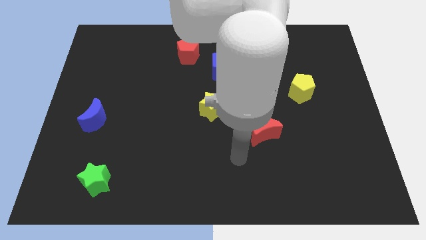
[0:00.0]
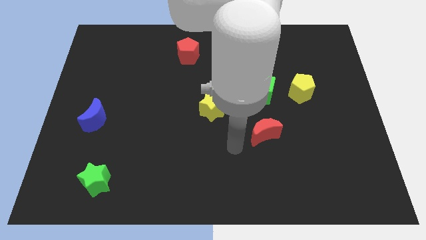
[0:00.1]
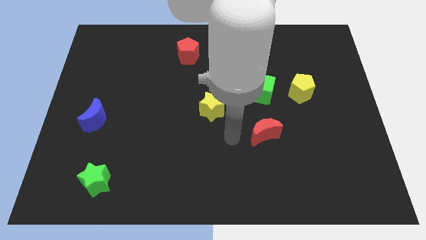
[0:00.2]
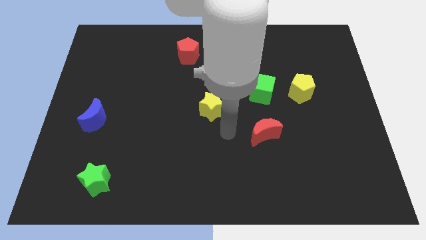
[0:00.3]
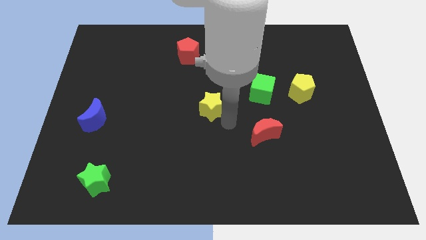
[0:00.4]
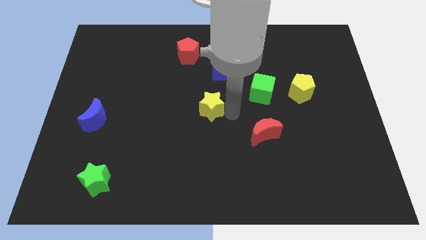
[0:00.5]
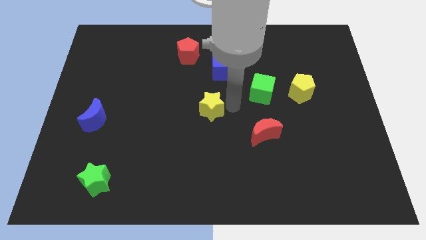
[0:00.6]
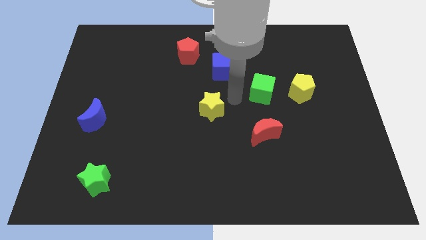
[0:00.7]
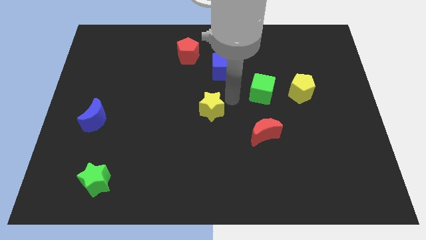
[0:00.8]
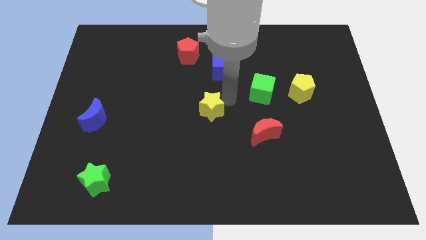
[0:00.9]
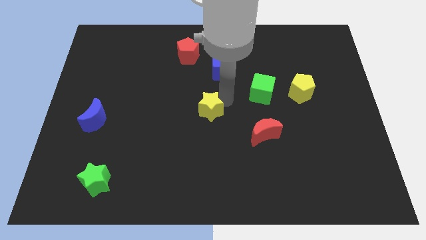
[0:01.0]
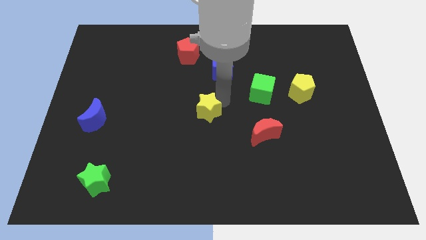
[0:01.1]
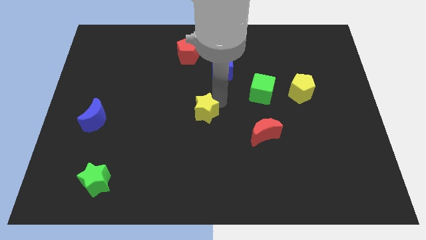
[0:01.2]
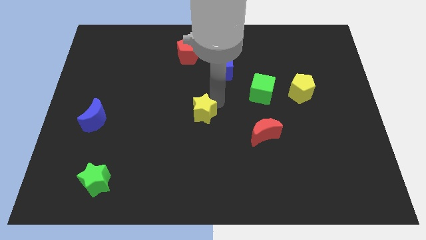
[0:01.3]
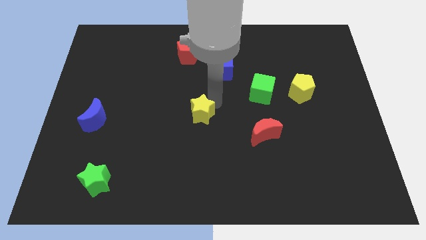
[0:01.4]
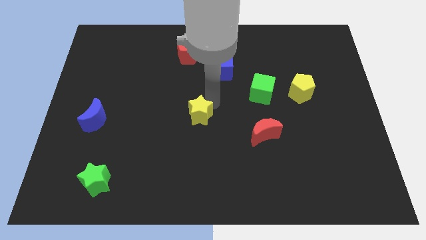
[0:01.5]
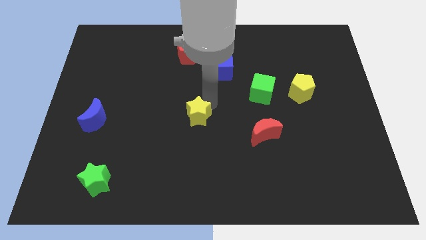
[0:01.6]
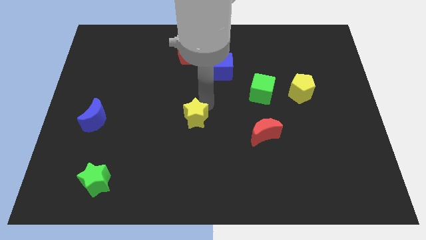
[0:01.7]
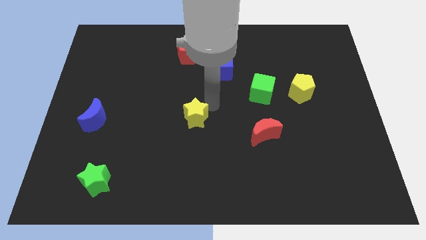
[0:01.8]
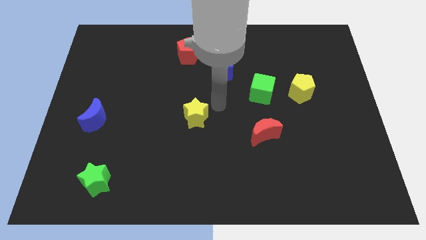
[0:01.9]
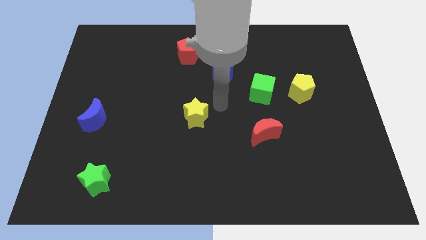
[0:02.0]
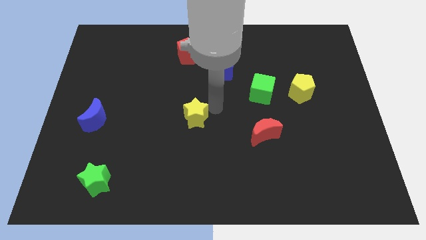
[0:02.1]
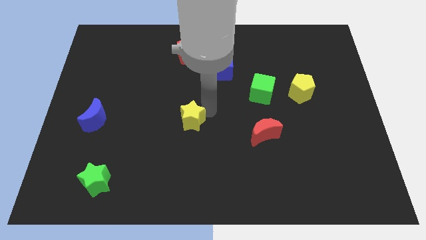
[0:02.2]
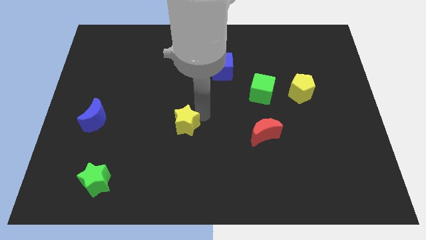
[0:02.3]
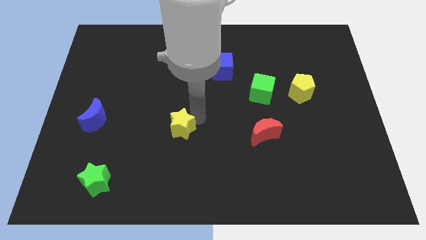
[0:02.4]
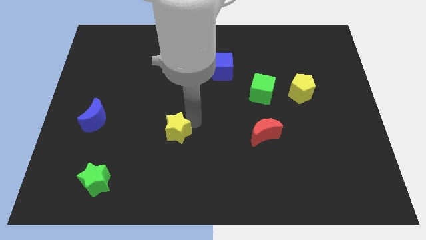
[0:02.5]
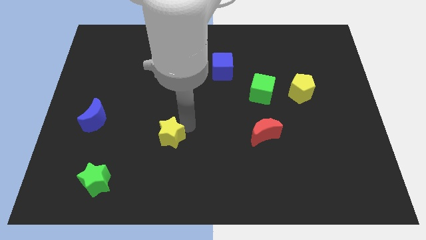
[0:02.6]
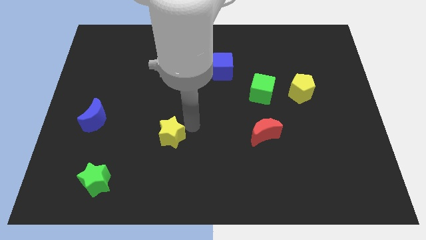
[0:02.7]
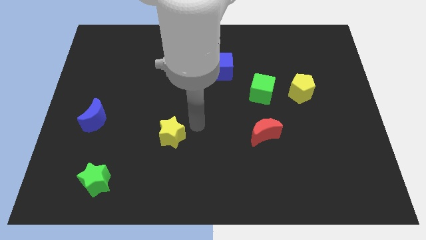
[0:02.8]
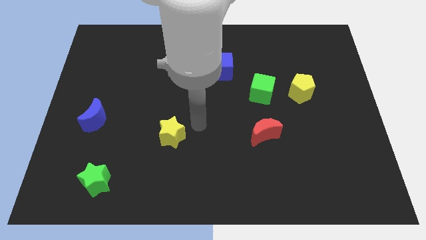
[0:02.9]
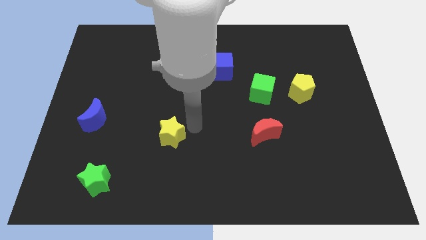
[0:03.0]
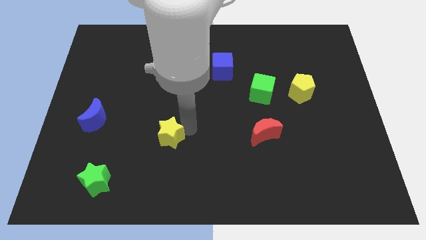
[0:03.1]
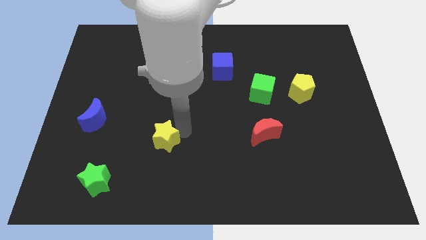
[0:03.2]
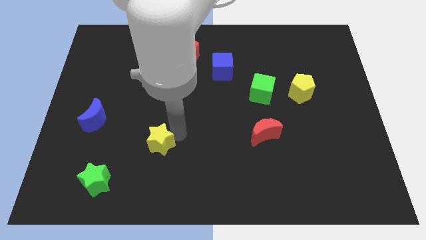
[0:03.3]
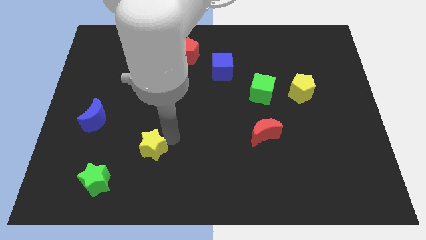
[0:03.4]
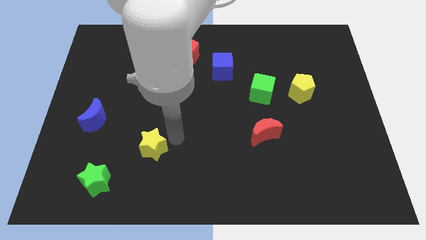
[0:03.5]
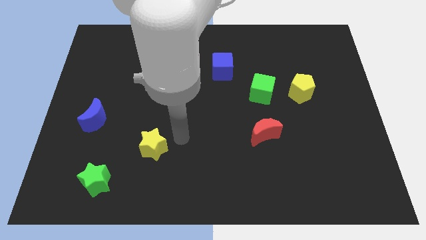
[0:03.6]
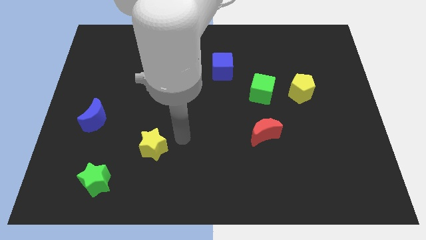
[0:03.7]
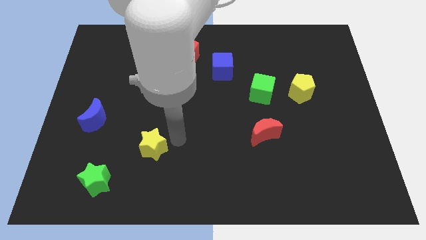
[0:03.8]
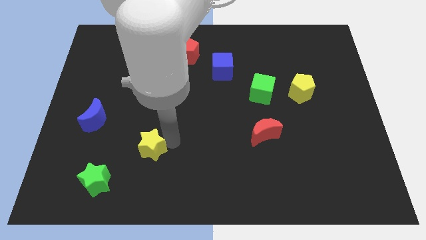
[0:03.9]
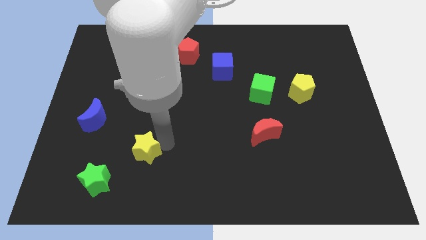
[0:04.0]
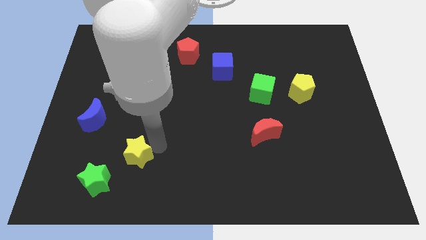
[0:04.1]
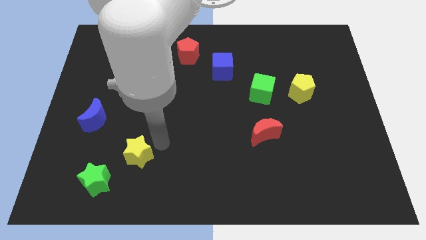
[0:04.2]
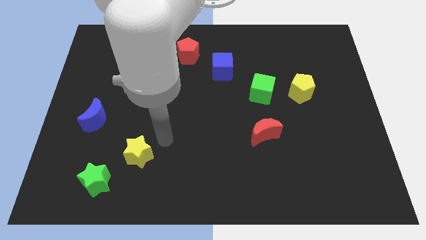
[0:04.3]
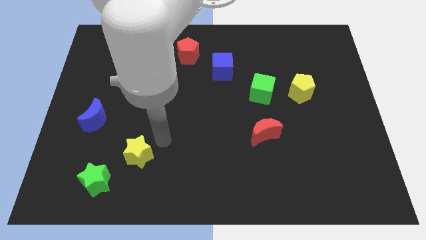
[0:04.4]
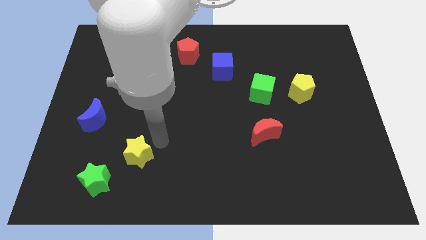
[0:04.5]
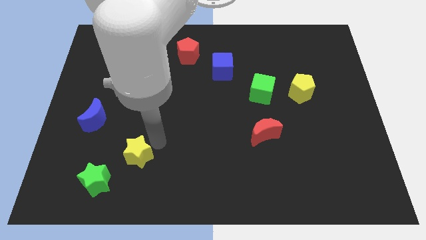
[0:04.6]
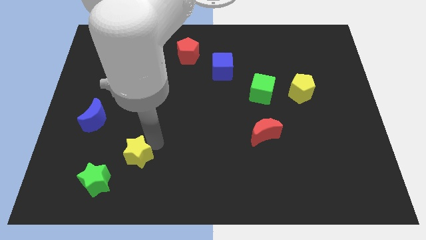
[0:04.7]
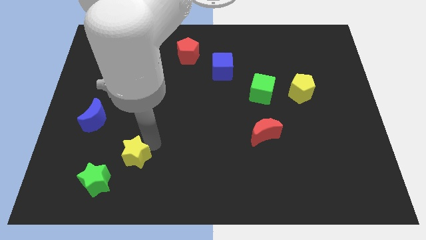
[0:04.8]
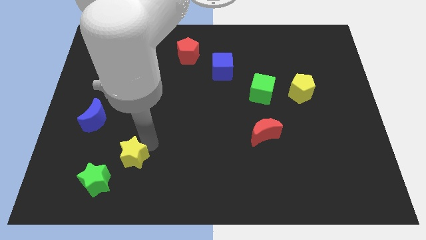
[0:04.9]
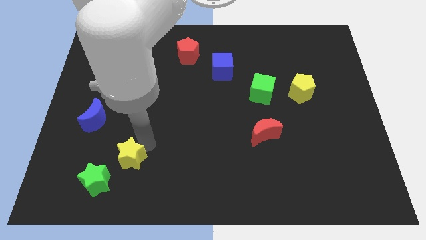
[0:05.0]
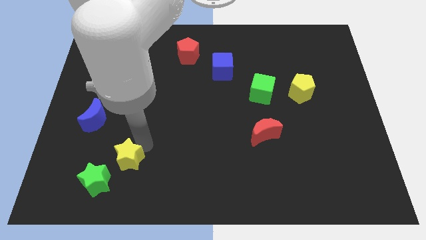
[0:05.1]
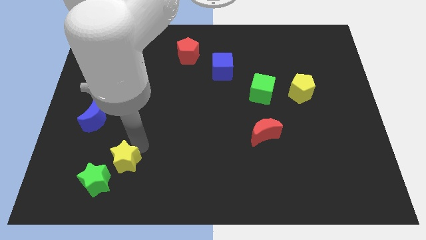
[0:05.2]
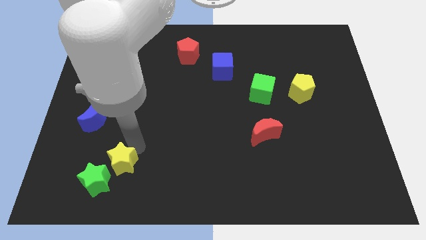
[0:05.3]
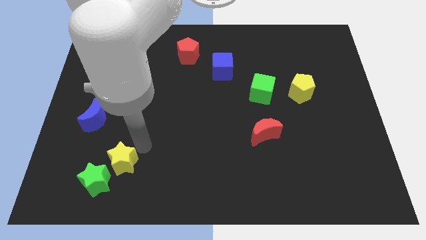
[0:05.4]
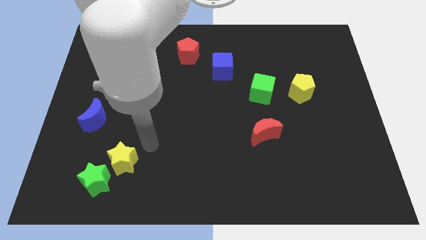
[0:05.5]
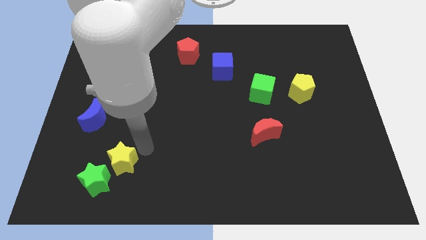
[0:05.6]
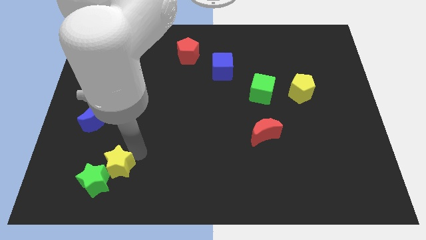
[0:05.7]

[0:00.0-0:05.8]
put the yellow star to the green star

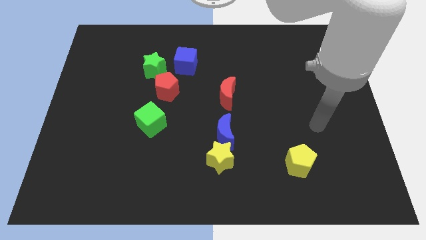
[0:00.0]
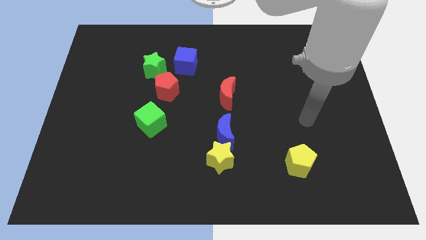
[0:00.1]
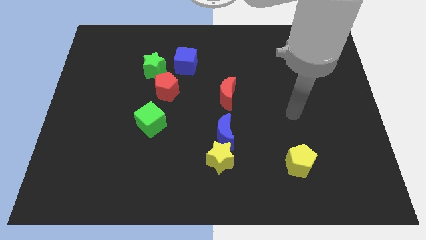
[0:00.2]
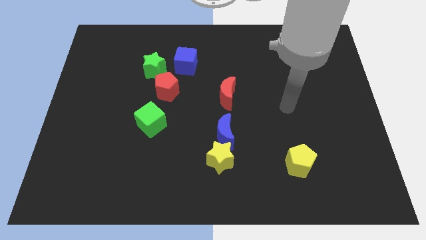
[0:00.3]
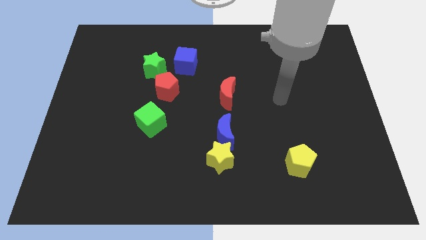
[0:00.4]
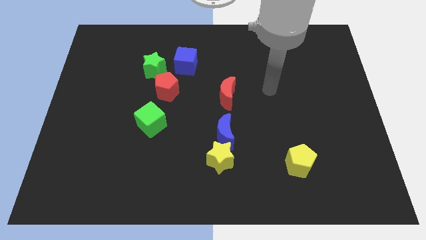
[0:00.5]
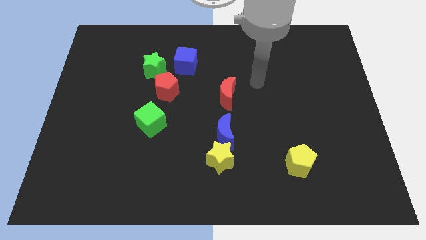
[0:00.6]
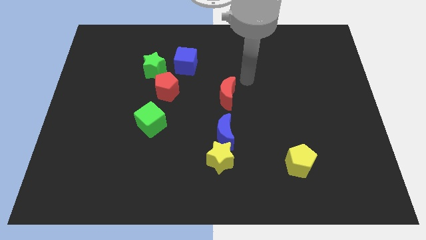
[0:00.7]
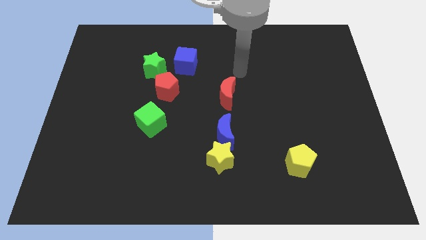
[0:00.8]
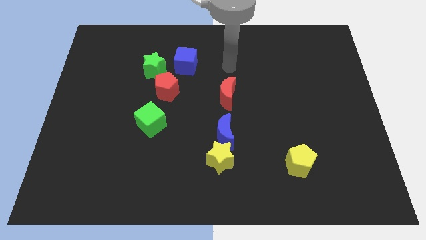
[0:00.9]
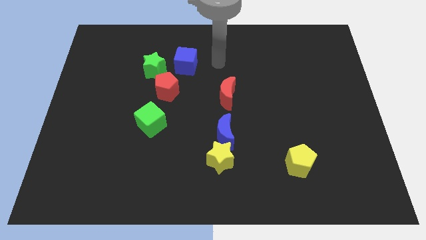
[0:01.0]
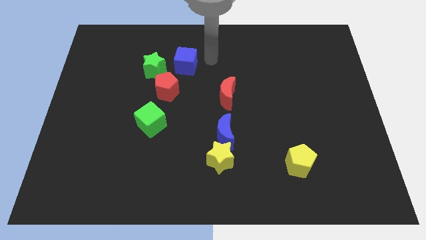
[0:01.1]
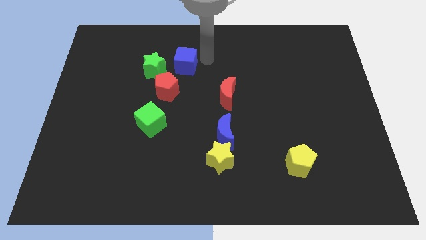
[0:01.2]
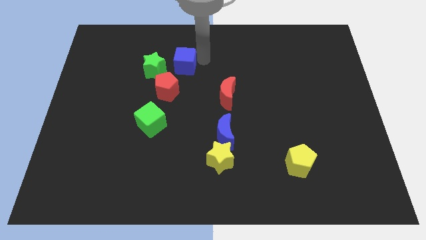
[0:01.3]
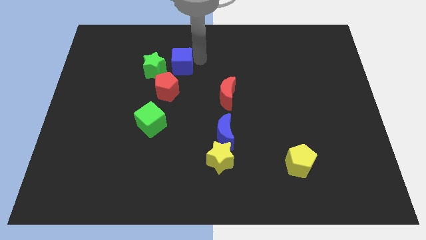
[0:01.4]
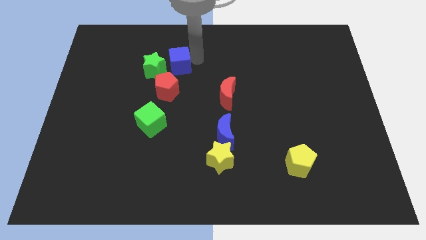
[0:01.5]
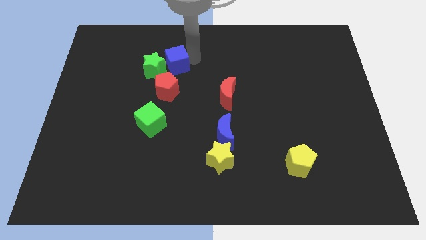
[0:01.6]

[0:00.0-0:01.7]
slide the blue cube to the green star

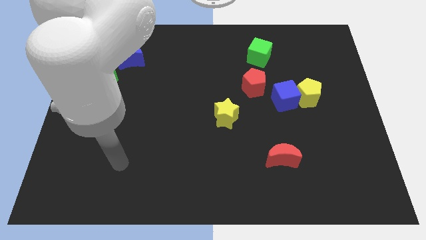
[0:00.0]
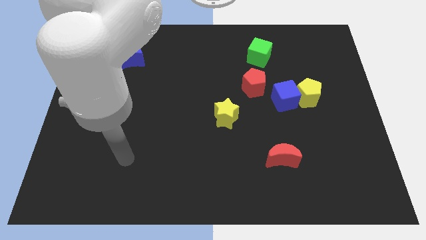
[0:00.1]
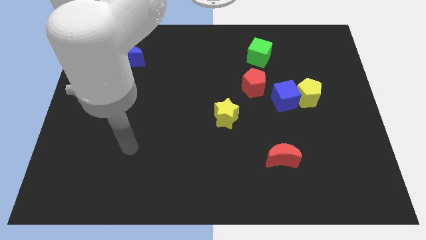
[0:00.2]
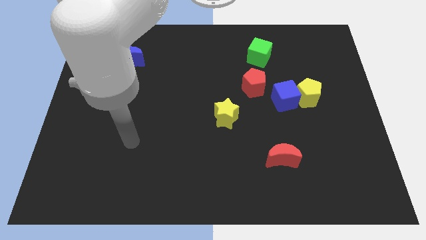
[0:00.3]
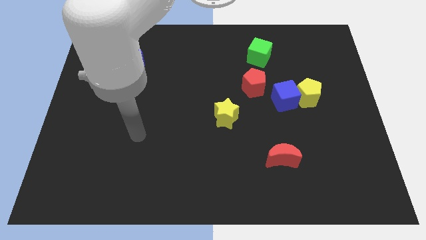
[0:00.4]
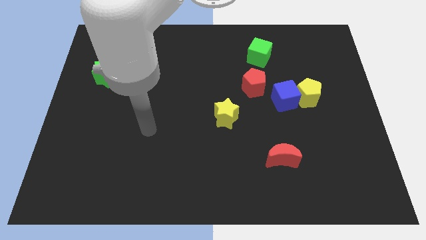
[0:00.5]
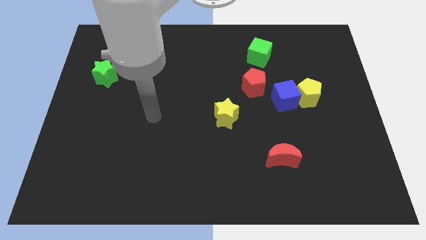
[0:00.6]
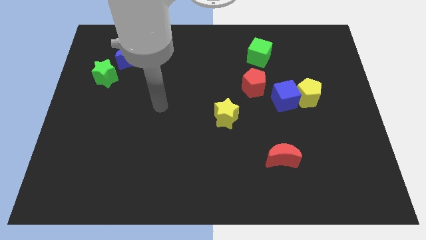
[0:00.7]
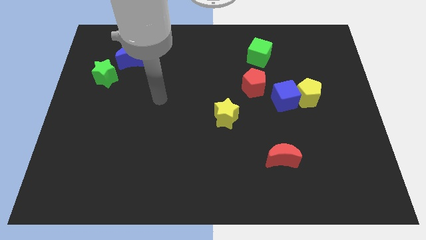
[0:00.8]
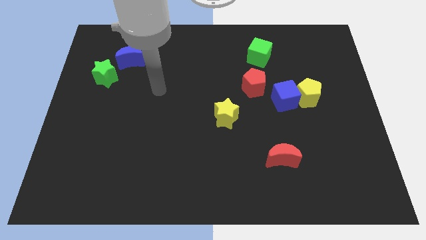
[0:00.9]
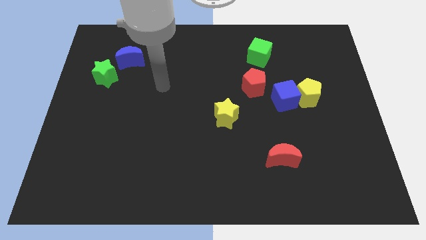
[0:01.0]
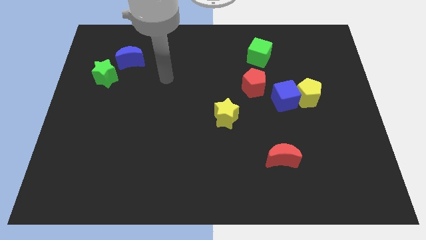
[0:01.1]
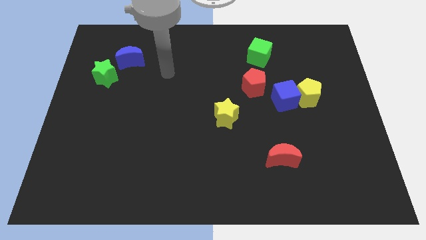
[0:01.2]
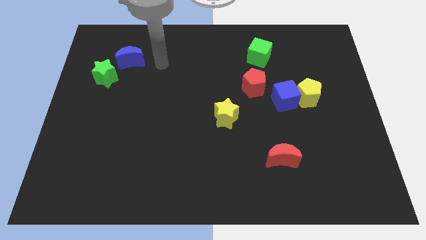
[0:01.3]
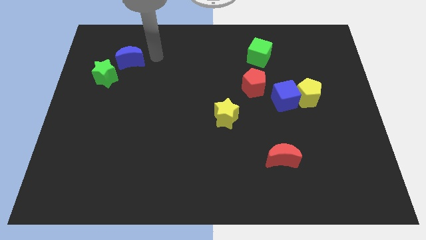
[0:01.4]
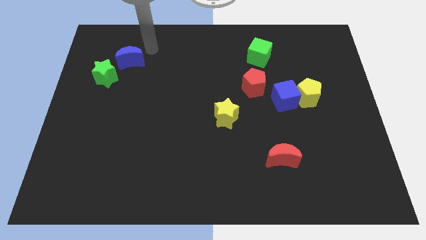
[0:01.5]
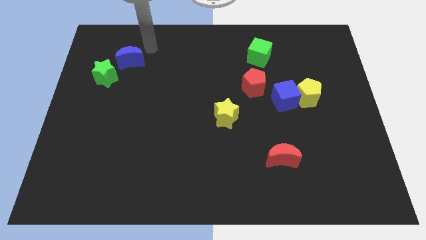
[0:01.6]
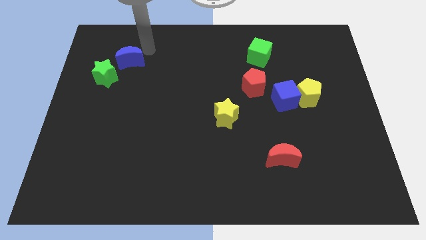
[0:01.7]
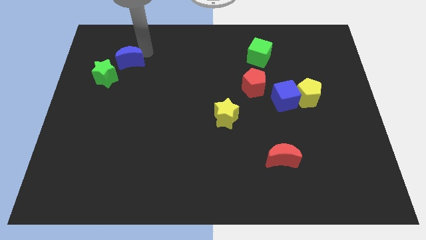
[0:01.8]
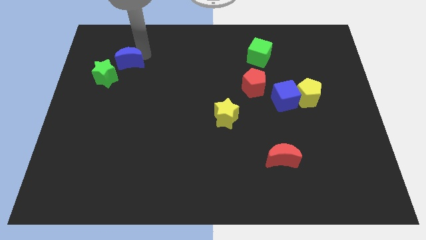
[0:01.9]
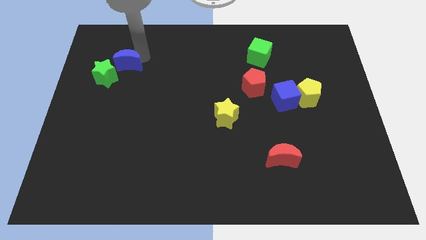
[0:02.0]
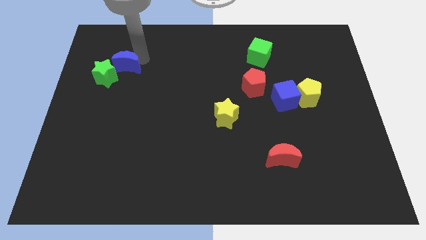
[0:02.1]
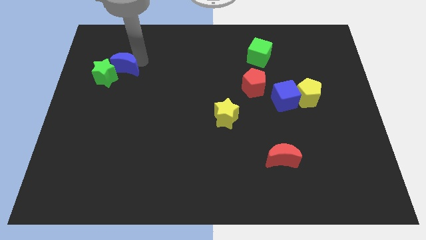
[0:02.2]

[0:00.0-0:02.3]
move the blue moon towards the green star
